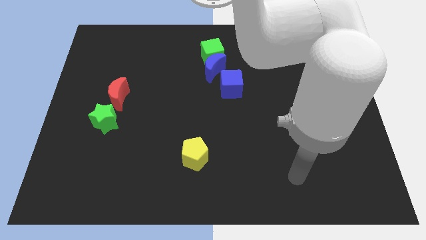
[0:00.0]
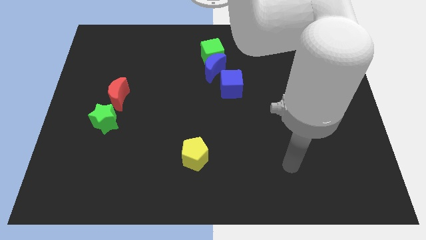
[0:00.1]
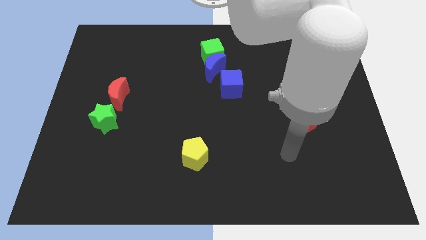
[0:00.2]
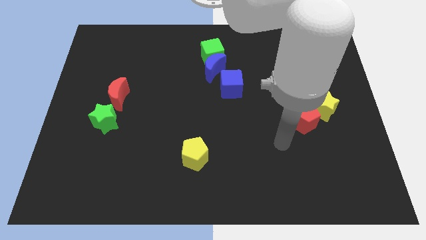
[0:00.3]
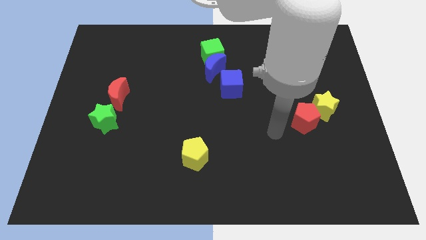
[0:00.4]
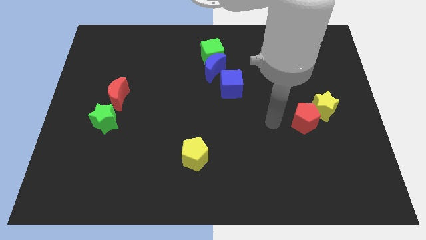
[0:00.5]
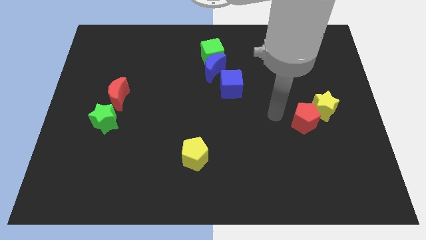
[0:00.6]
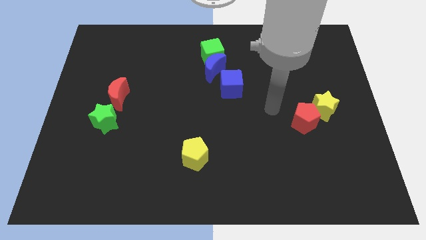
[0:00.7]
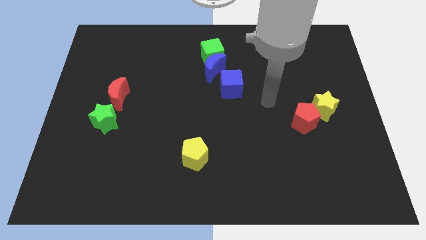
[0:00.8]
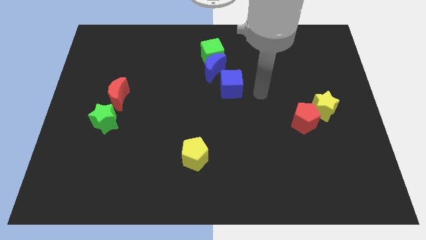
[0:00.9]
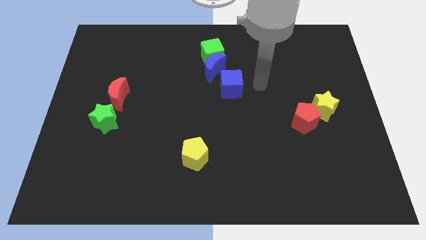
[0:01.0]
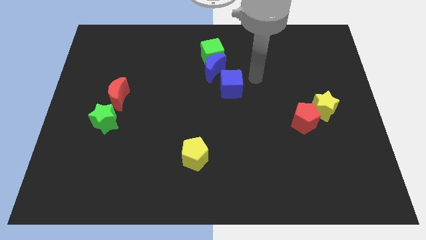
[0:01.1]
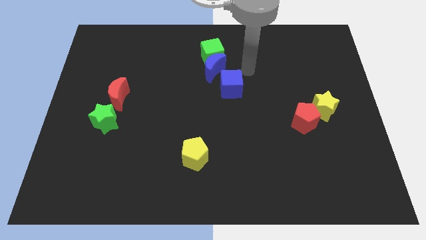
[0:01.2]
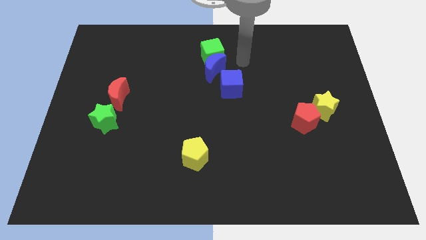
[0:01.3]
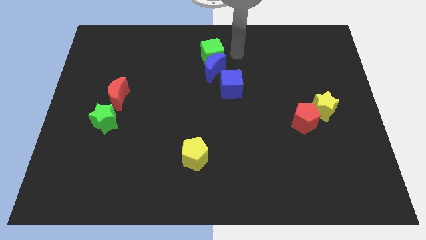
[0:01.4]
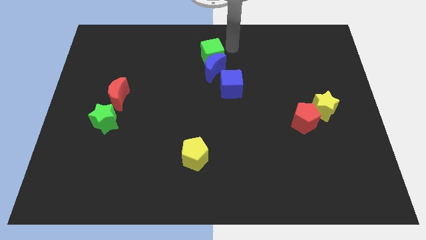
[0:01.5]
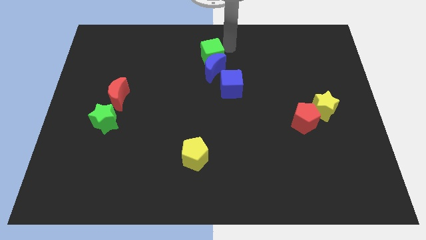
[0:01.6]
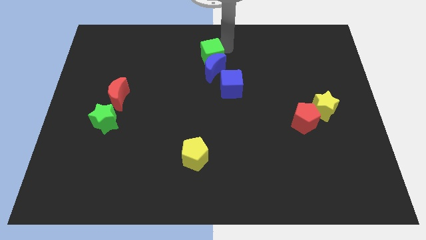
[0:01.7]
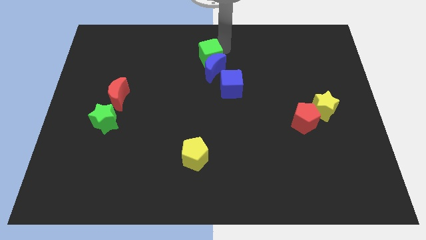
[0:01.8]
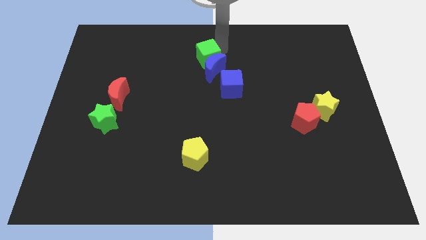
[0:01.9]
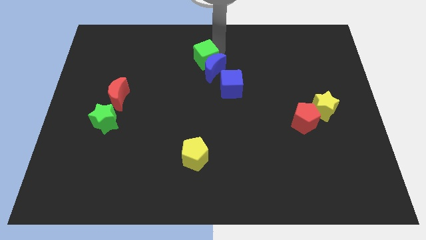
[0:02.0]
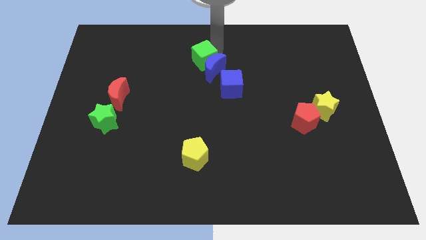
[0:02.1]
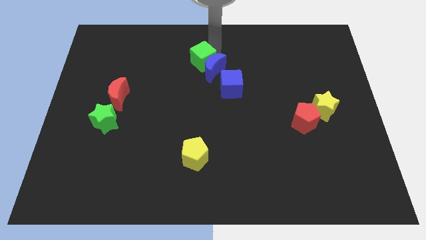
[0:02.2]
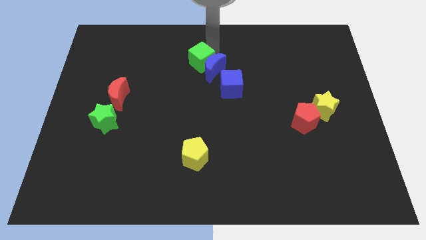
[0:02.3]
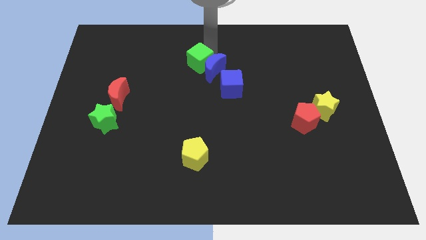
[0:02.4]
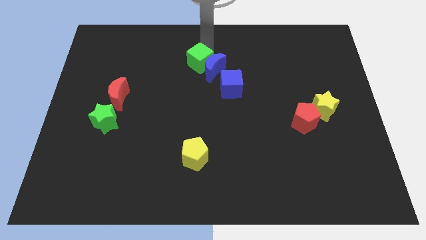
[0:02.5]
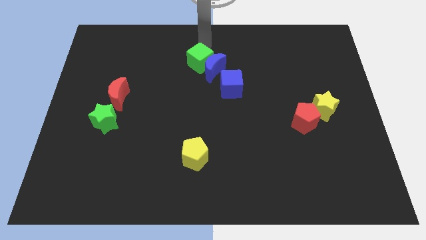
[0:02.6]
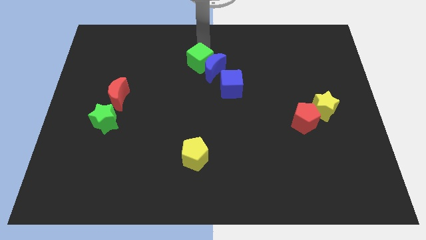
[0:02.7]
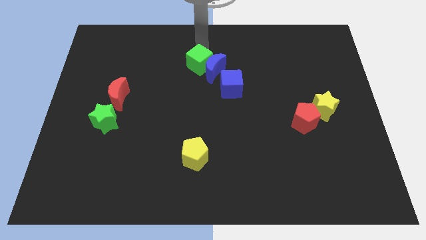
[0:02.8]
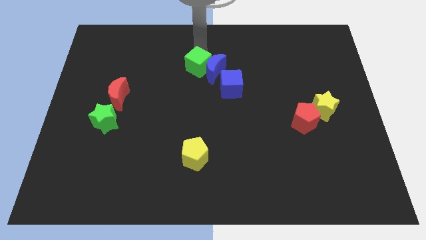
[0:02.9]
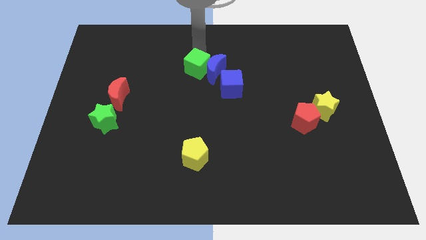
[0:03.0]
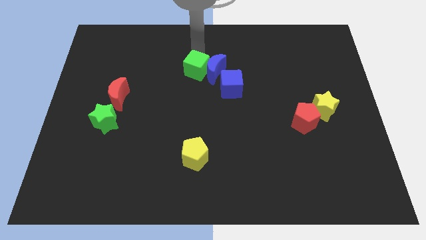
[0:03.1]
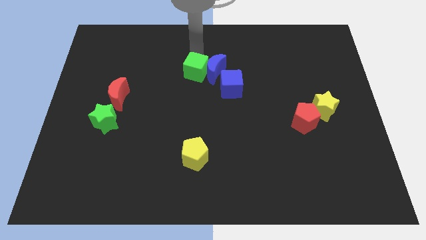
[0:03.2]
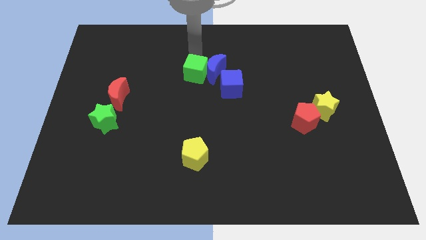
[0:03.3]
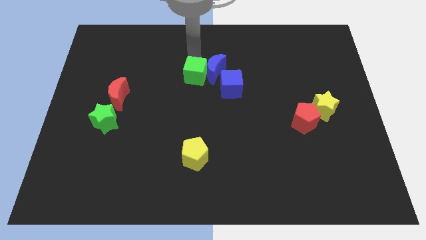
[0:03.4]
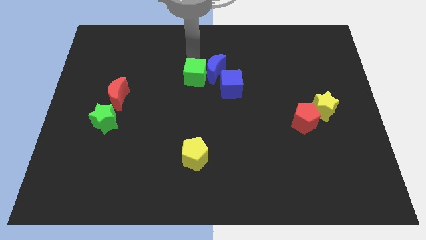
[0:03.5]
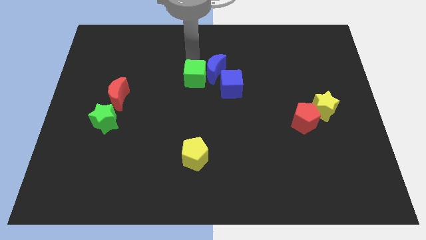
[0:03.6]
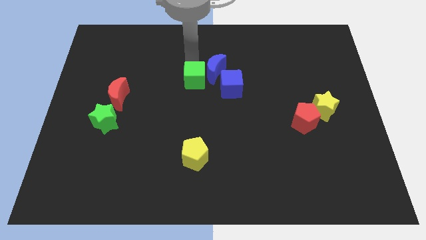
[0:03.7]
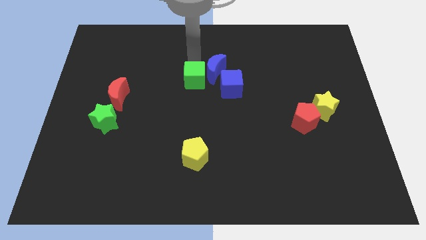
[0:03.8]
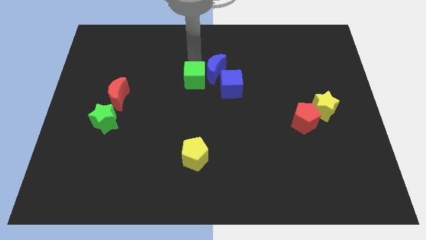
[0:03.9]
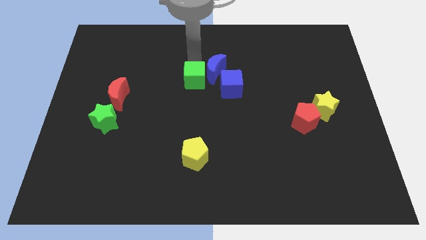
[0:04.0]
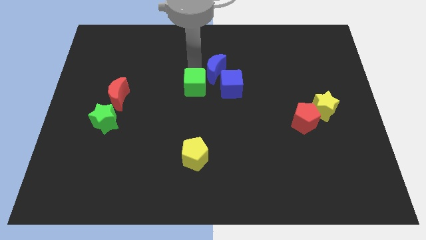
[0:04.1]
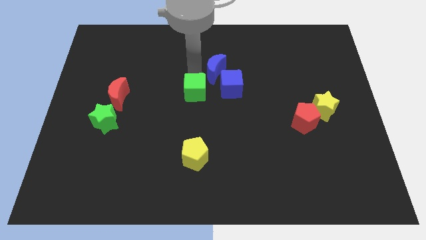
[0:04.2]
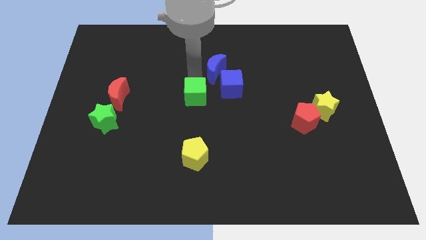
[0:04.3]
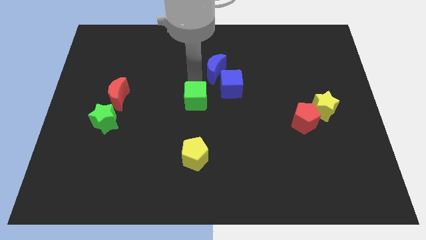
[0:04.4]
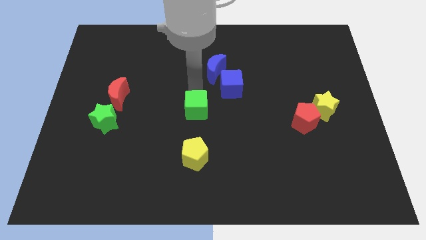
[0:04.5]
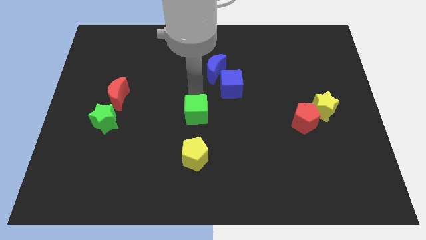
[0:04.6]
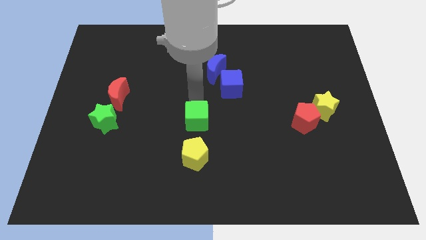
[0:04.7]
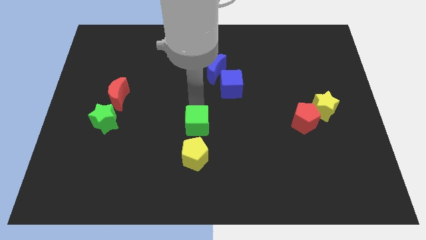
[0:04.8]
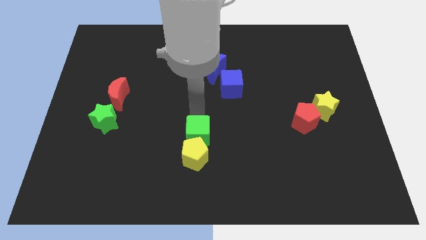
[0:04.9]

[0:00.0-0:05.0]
put the green cube close to the yellow pentagon

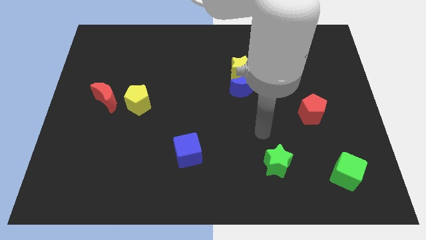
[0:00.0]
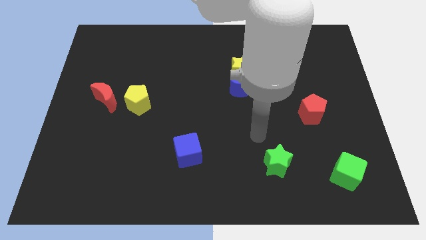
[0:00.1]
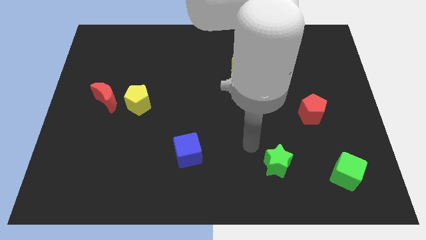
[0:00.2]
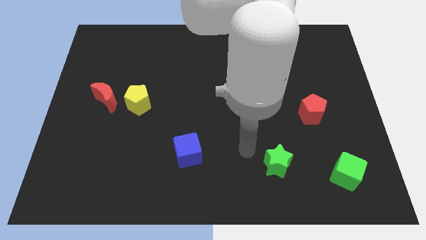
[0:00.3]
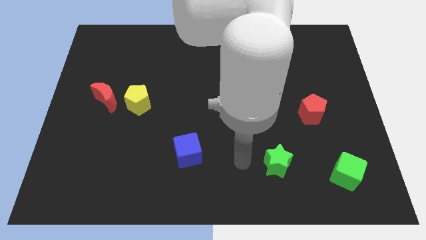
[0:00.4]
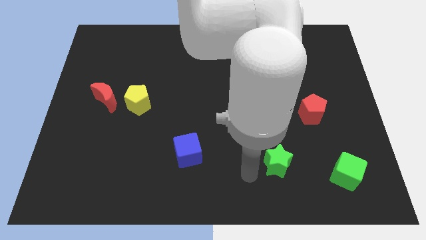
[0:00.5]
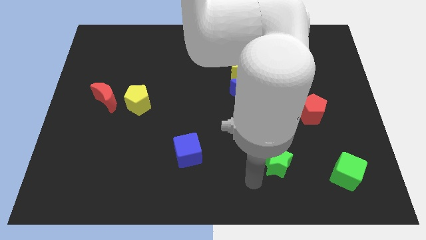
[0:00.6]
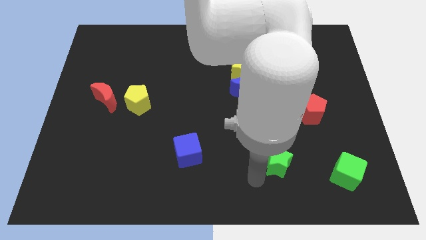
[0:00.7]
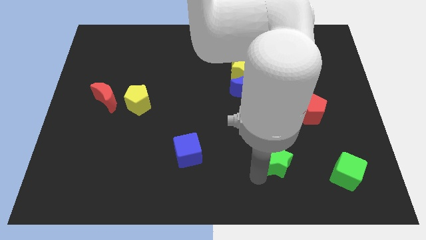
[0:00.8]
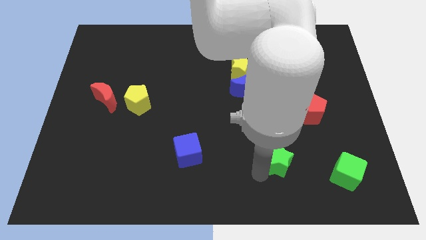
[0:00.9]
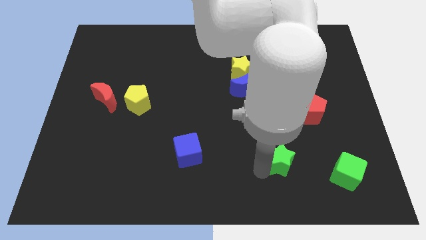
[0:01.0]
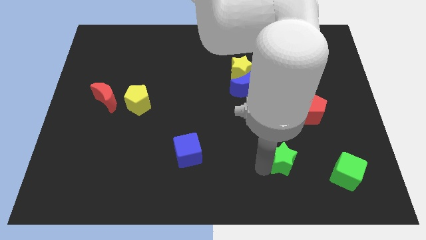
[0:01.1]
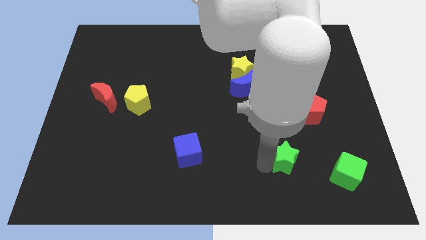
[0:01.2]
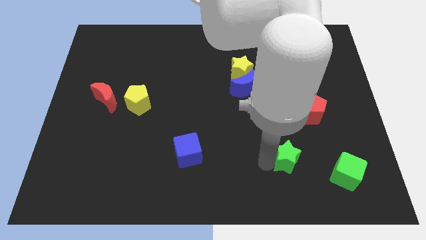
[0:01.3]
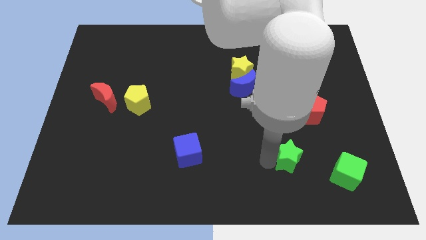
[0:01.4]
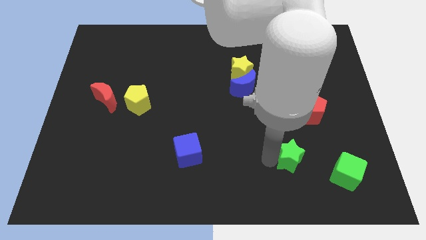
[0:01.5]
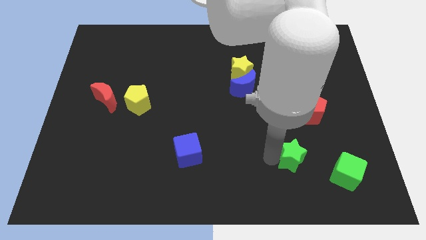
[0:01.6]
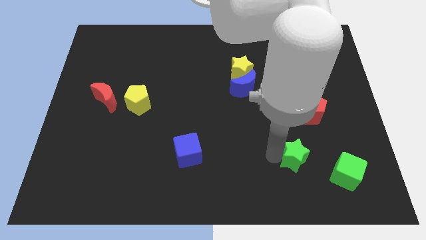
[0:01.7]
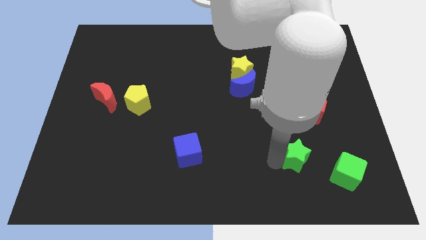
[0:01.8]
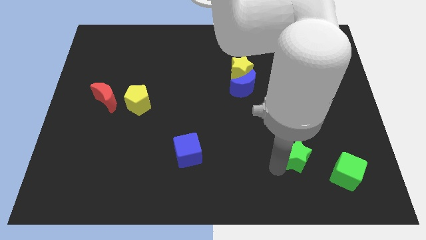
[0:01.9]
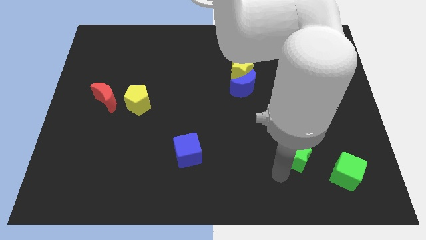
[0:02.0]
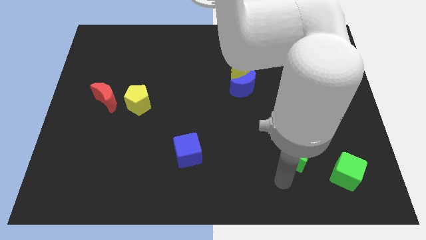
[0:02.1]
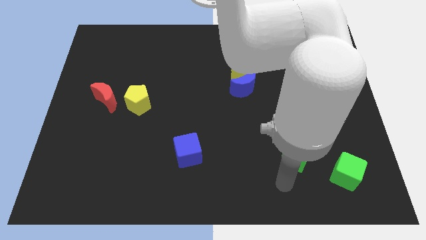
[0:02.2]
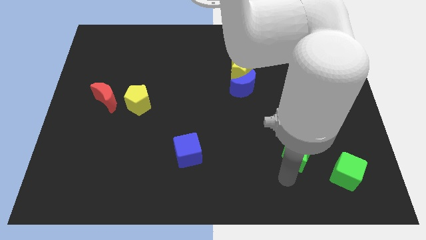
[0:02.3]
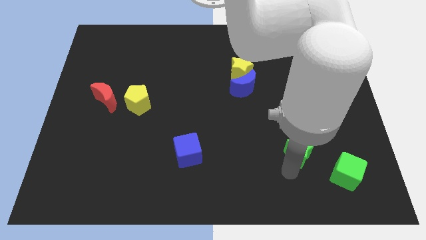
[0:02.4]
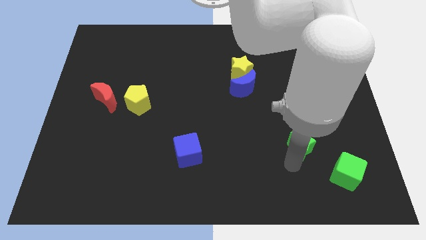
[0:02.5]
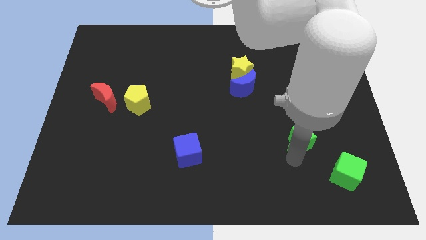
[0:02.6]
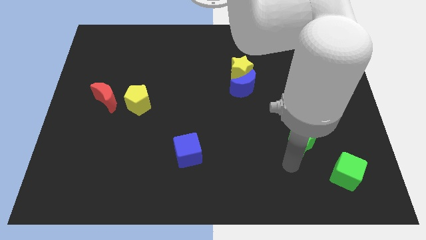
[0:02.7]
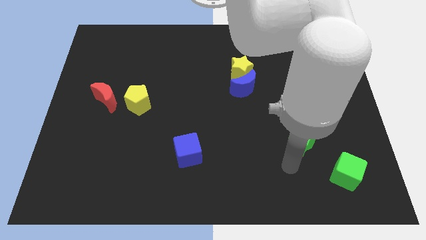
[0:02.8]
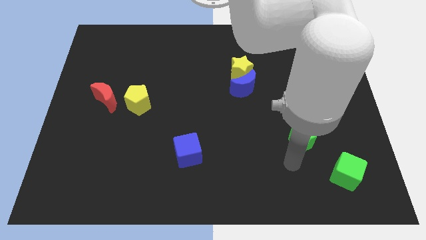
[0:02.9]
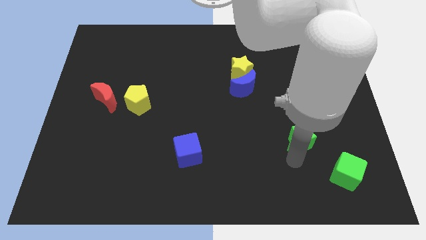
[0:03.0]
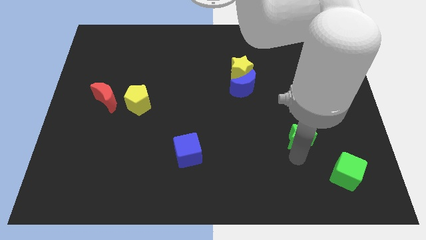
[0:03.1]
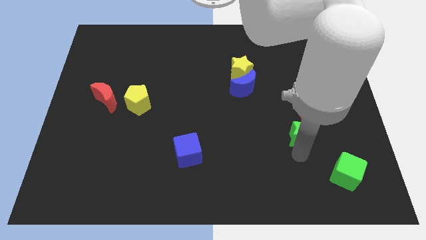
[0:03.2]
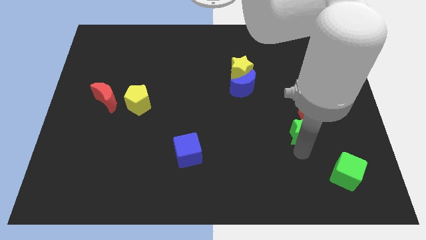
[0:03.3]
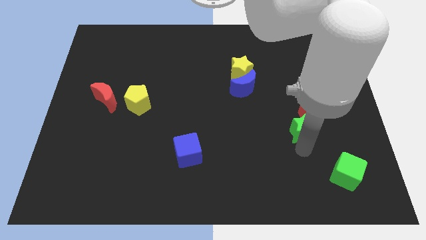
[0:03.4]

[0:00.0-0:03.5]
move the green star towards the red pentagon
